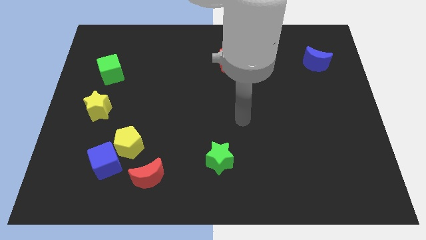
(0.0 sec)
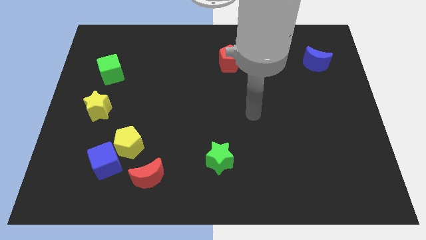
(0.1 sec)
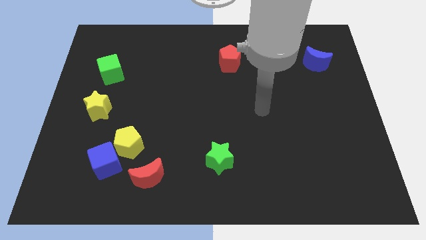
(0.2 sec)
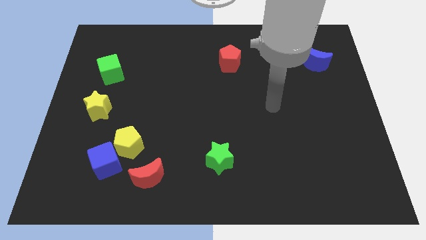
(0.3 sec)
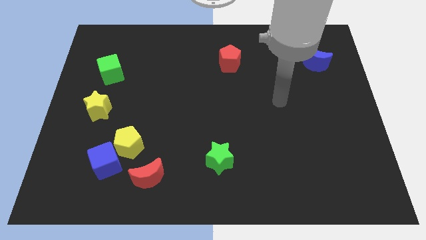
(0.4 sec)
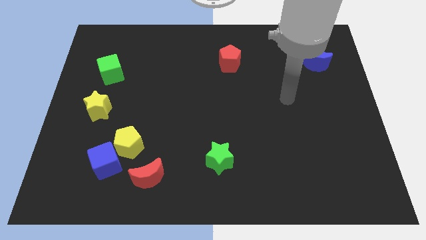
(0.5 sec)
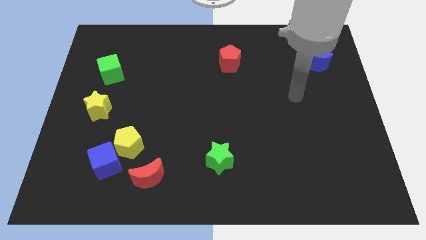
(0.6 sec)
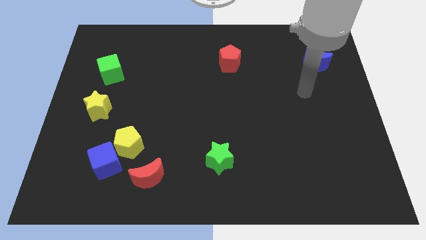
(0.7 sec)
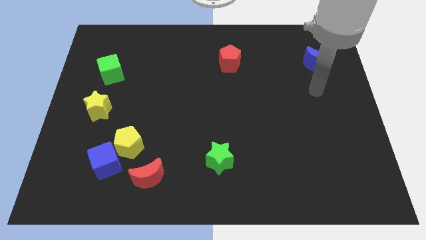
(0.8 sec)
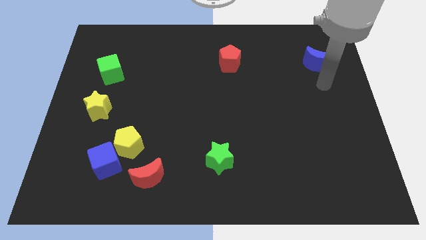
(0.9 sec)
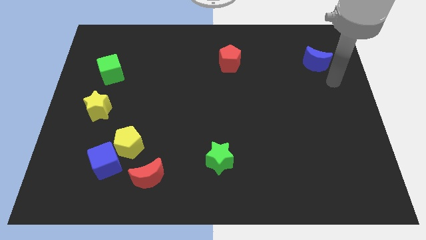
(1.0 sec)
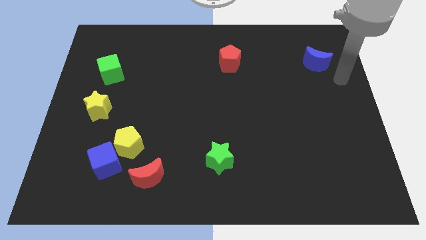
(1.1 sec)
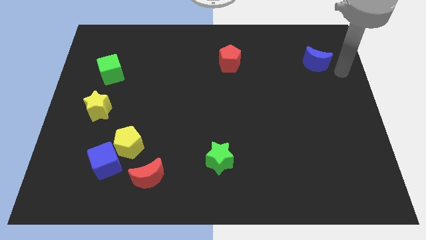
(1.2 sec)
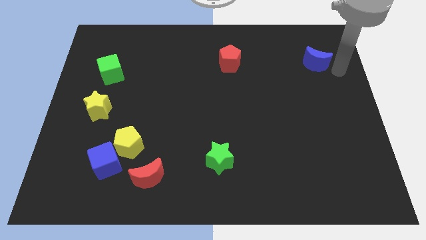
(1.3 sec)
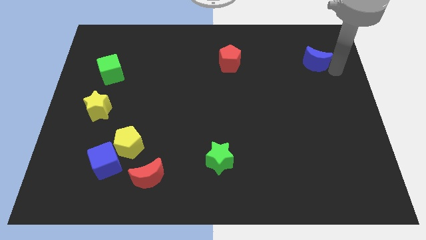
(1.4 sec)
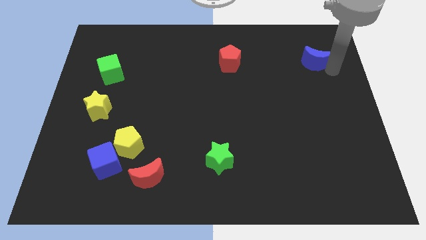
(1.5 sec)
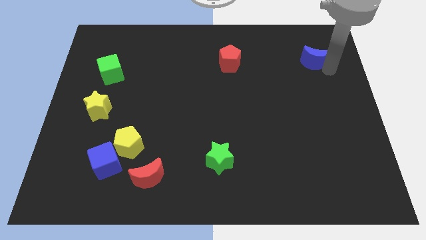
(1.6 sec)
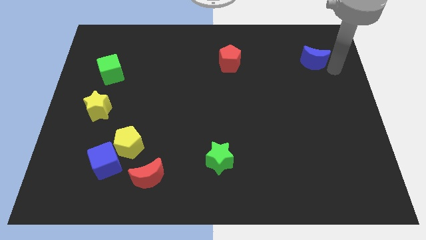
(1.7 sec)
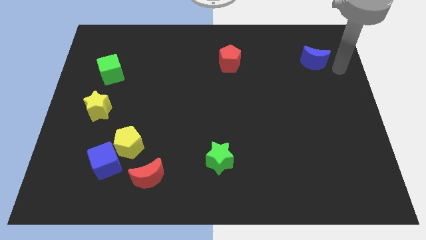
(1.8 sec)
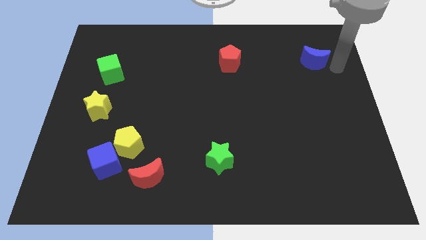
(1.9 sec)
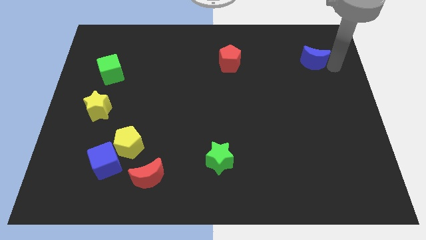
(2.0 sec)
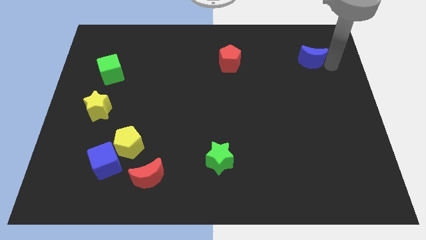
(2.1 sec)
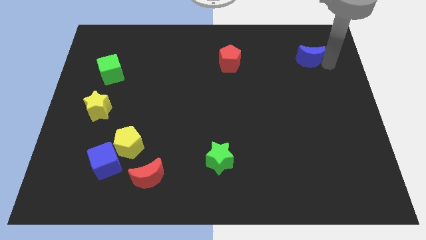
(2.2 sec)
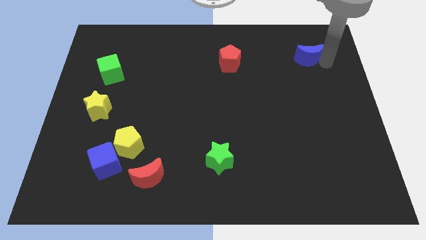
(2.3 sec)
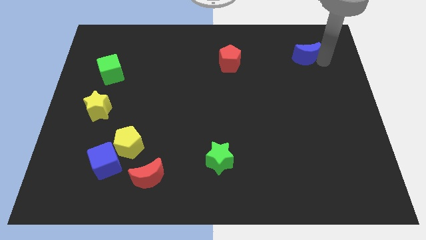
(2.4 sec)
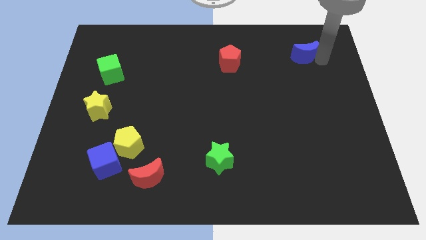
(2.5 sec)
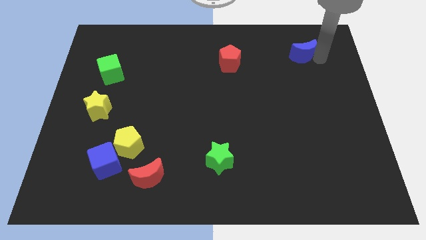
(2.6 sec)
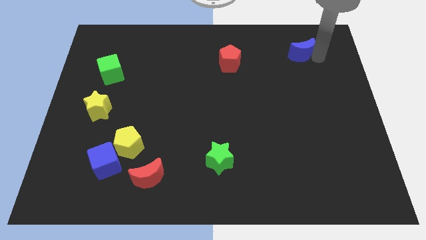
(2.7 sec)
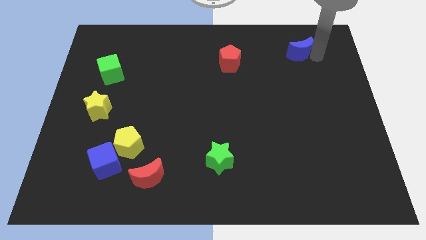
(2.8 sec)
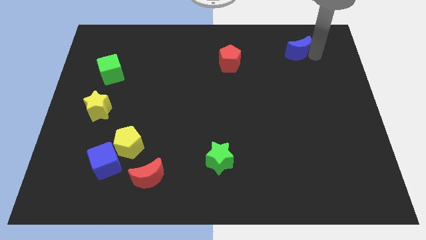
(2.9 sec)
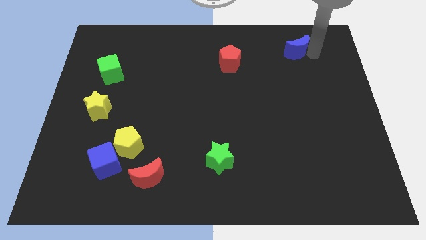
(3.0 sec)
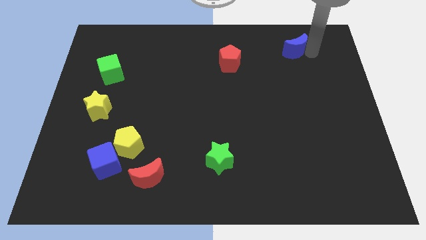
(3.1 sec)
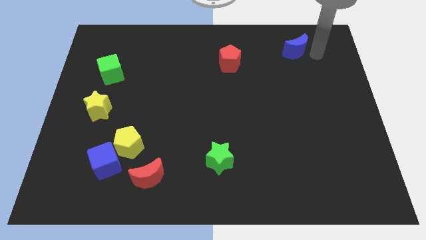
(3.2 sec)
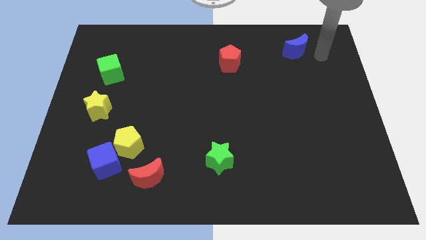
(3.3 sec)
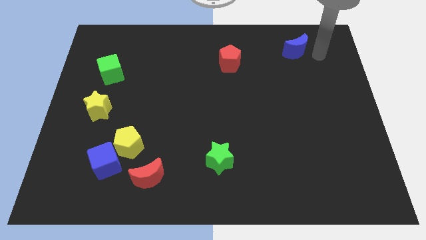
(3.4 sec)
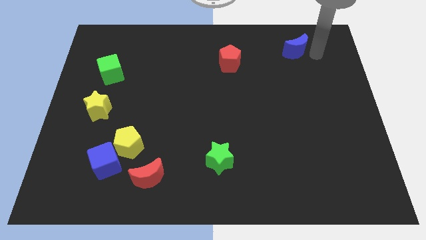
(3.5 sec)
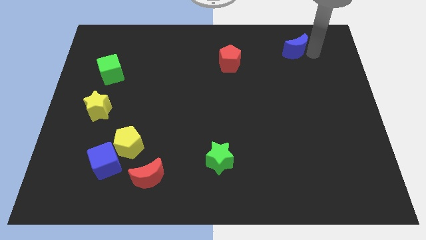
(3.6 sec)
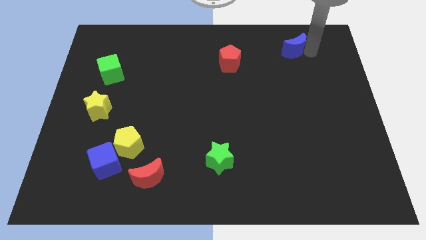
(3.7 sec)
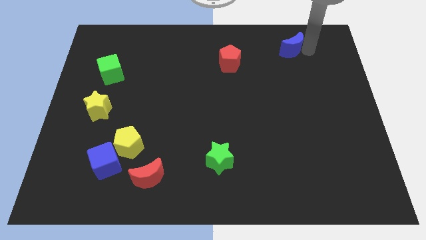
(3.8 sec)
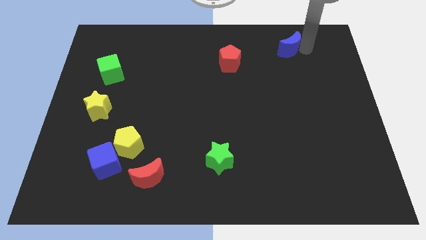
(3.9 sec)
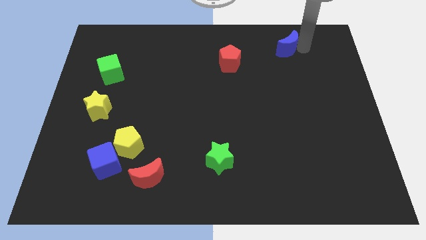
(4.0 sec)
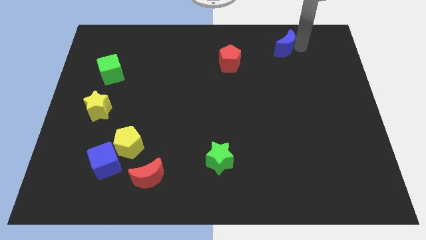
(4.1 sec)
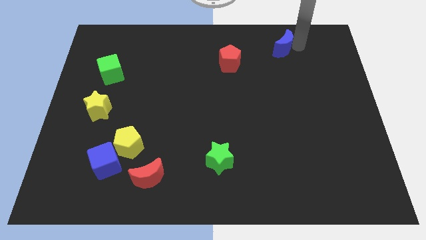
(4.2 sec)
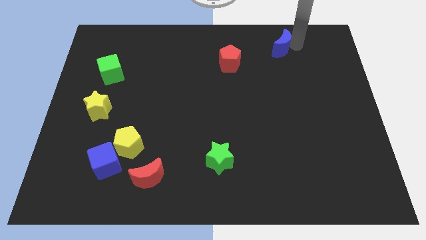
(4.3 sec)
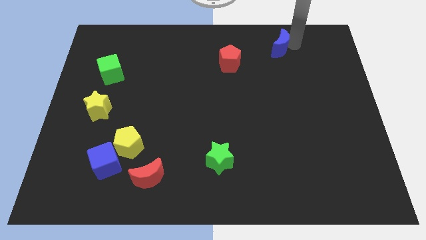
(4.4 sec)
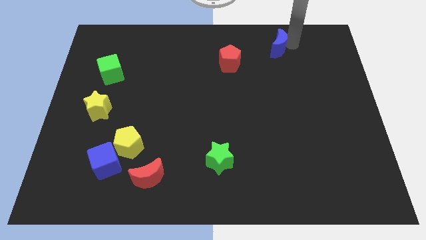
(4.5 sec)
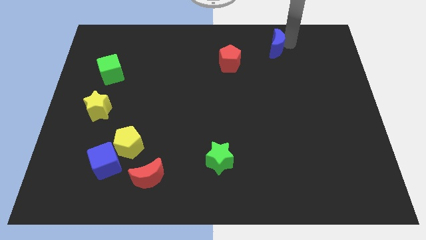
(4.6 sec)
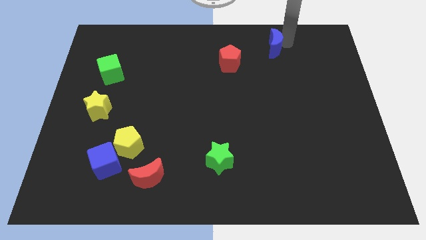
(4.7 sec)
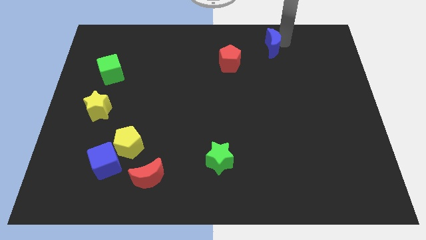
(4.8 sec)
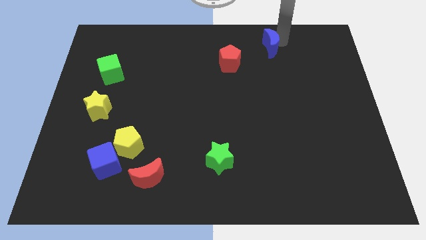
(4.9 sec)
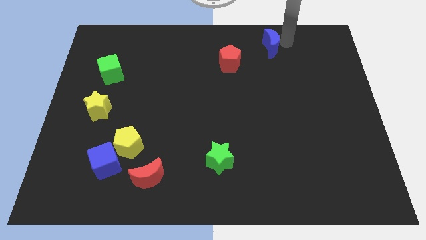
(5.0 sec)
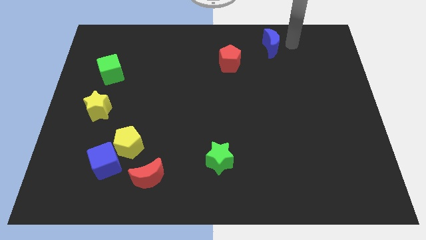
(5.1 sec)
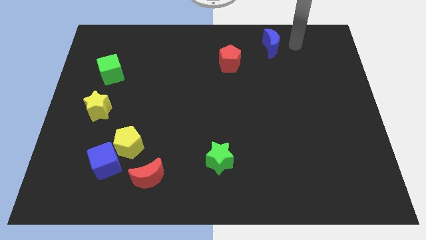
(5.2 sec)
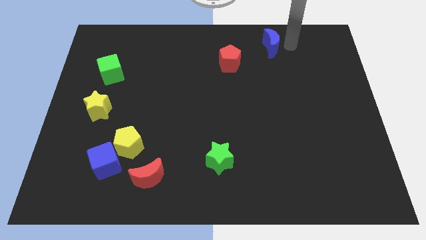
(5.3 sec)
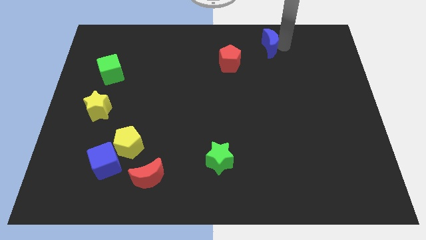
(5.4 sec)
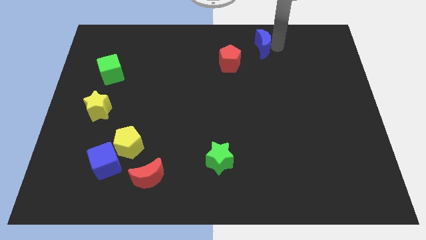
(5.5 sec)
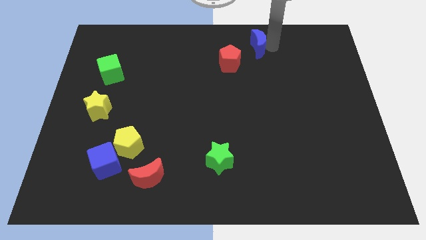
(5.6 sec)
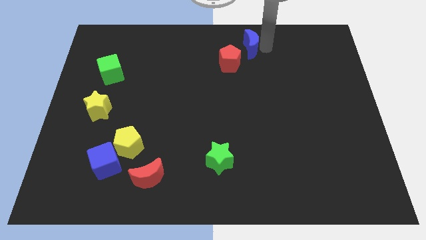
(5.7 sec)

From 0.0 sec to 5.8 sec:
push the blue moon to the top
